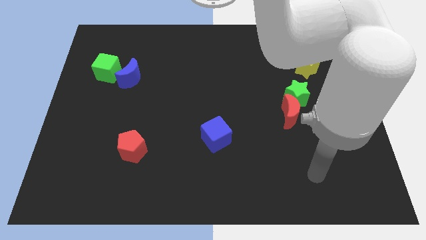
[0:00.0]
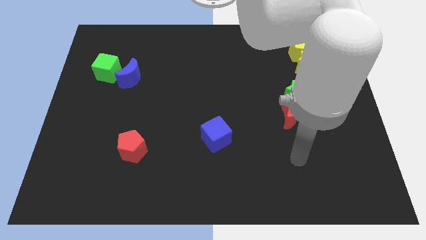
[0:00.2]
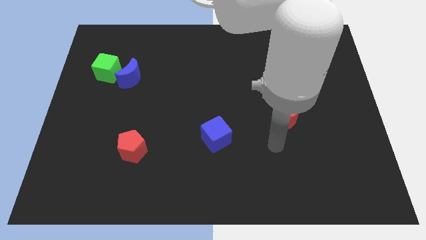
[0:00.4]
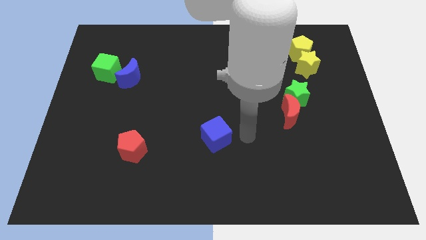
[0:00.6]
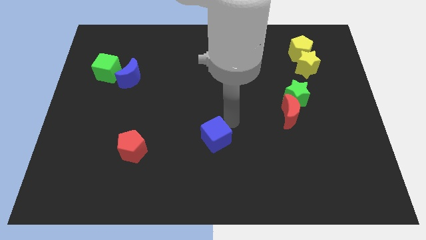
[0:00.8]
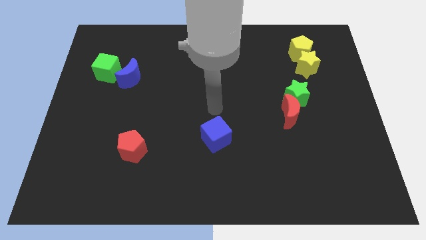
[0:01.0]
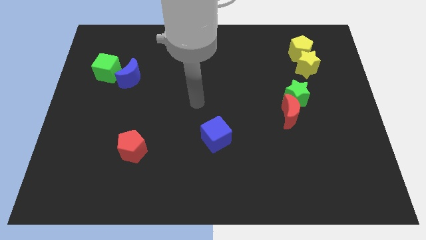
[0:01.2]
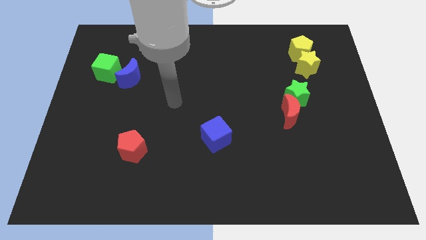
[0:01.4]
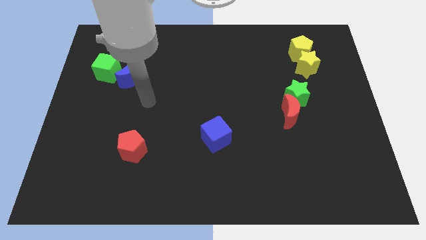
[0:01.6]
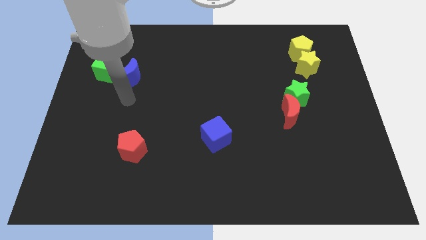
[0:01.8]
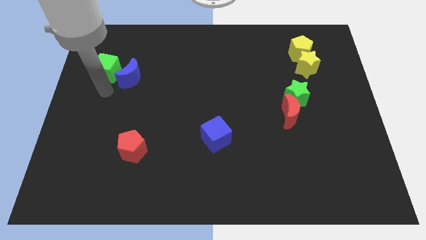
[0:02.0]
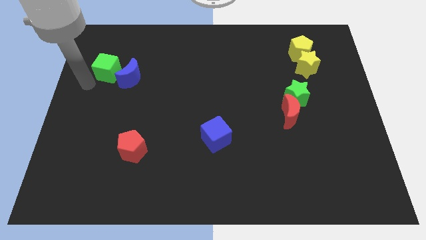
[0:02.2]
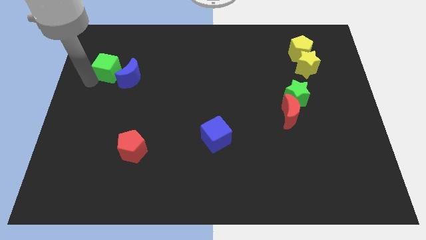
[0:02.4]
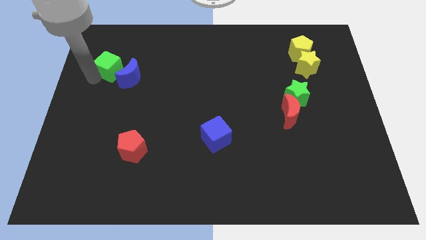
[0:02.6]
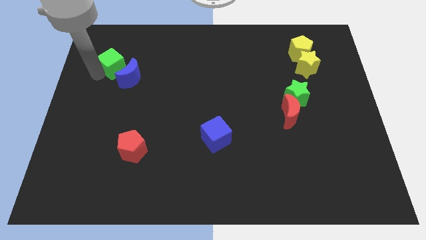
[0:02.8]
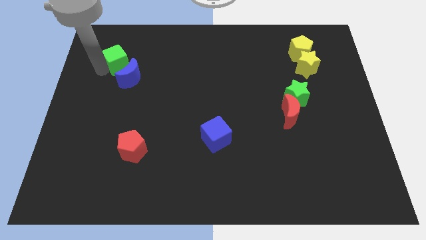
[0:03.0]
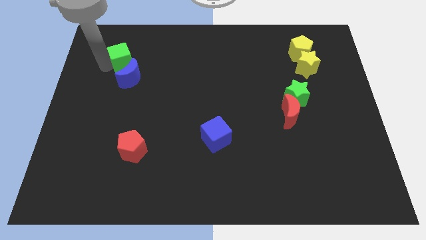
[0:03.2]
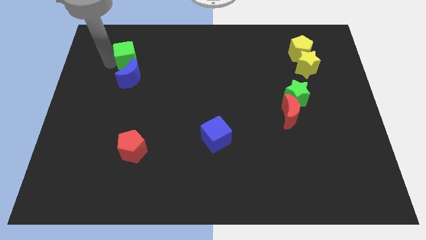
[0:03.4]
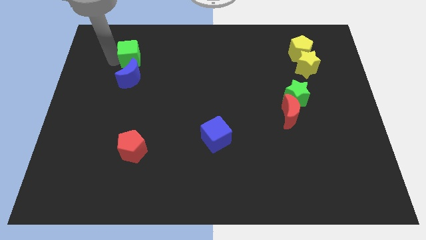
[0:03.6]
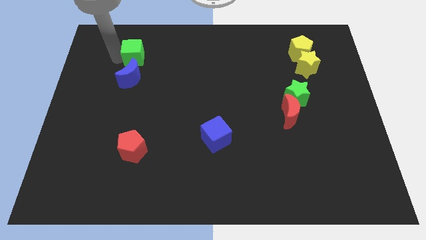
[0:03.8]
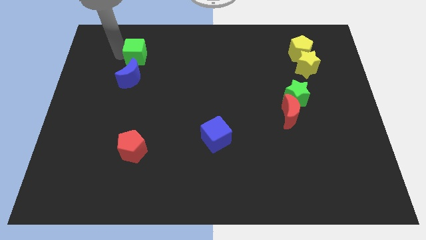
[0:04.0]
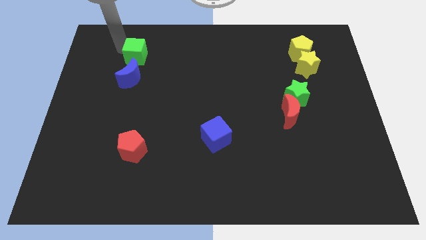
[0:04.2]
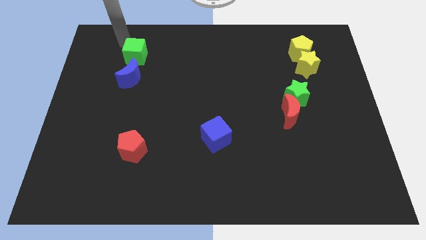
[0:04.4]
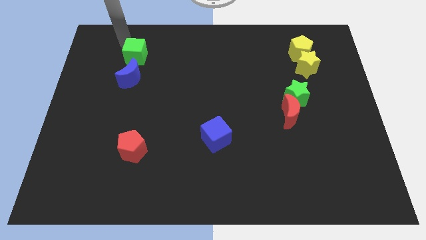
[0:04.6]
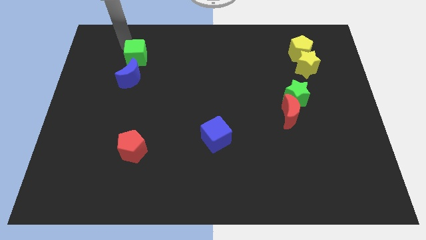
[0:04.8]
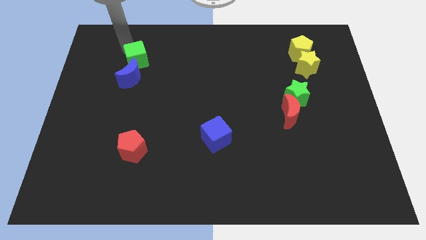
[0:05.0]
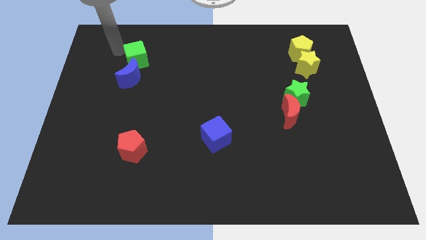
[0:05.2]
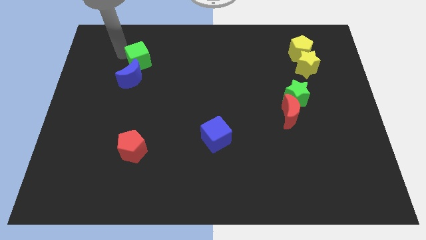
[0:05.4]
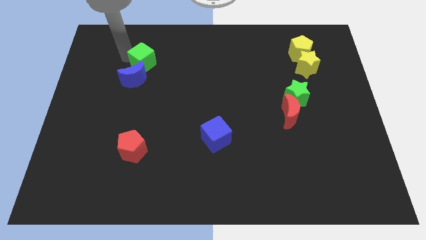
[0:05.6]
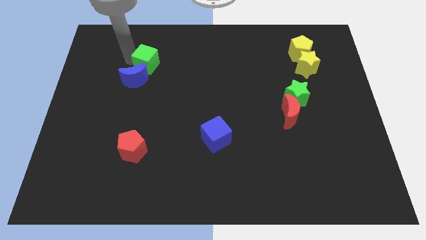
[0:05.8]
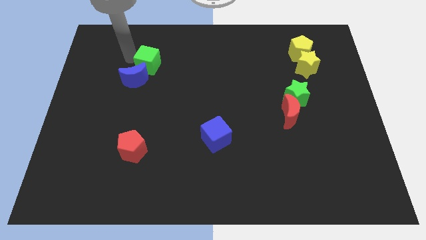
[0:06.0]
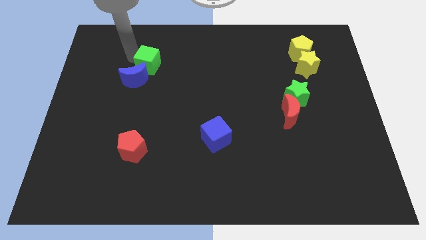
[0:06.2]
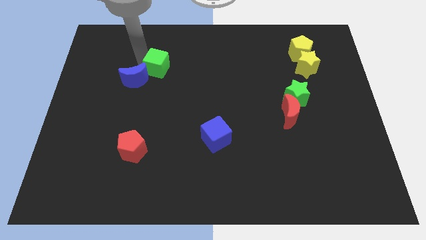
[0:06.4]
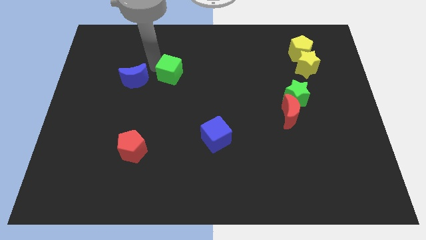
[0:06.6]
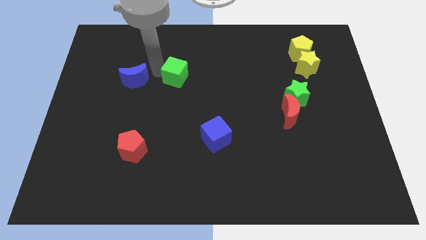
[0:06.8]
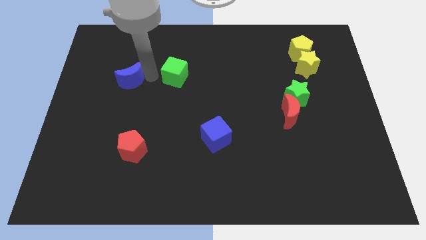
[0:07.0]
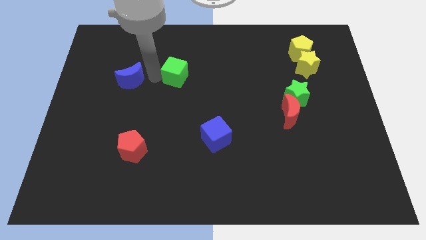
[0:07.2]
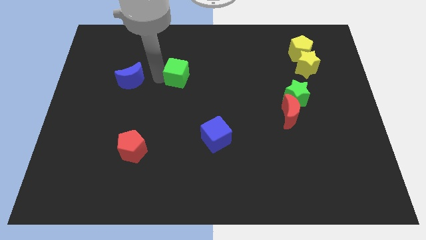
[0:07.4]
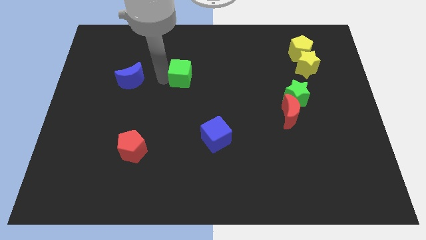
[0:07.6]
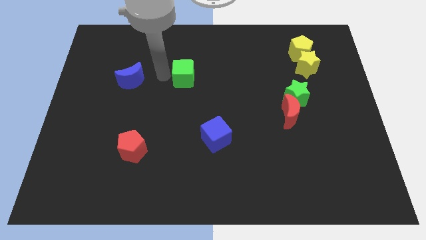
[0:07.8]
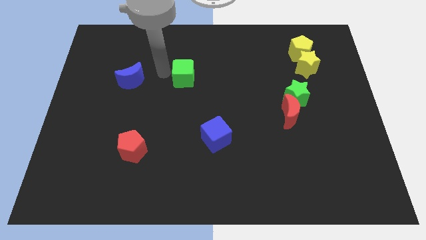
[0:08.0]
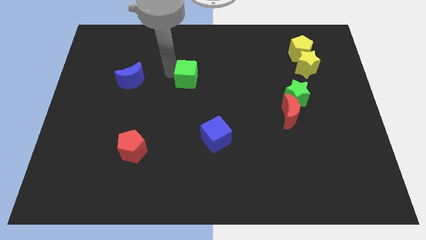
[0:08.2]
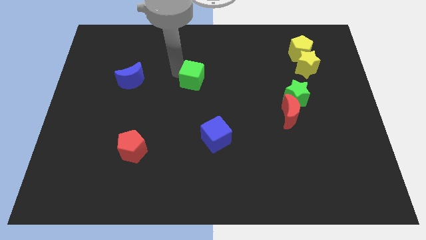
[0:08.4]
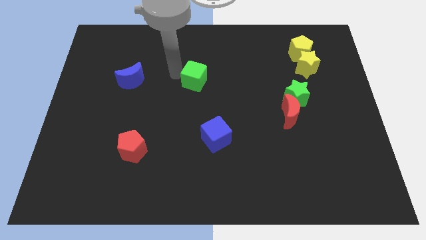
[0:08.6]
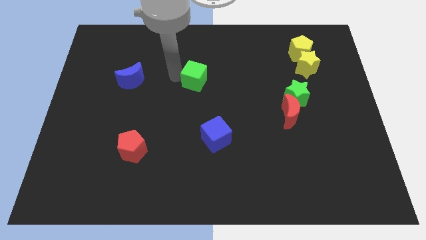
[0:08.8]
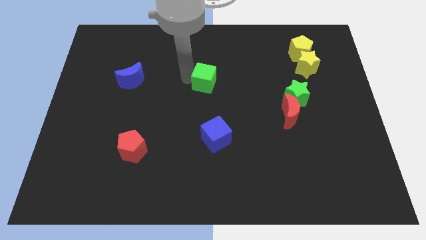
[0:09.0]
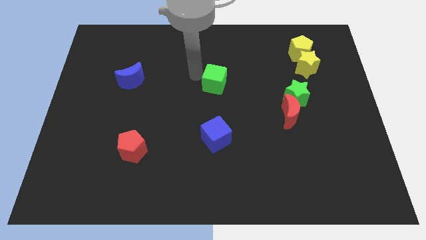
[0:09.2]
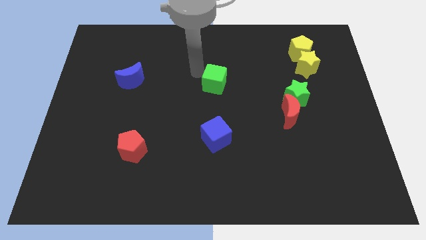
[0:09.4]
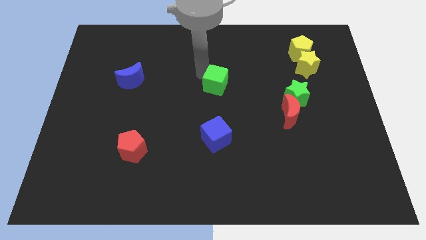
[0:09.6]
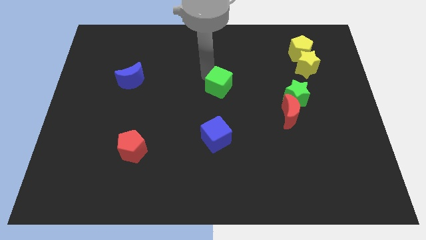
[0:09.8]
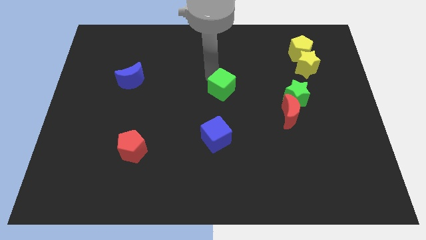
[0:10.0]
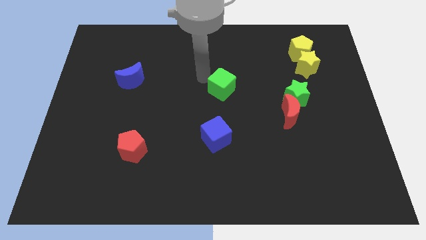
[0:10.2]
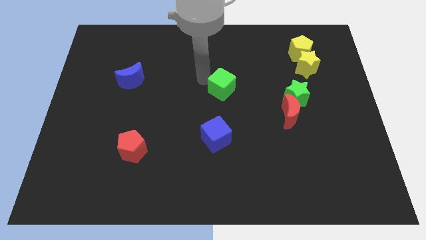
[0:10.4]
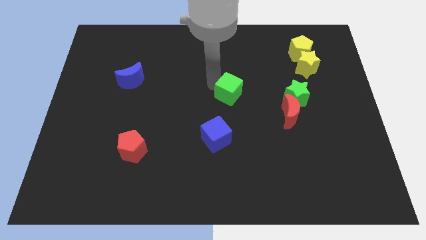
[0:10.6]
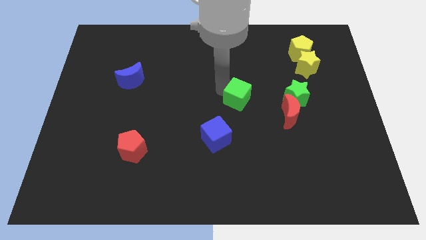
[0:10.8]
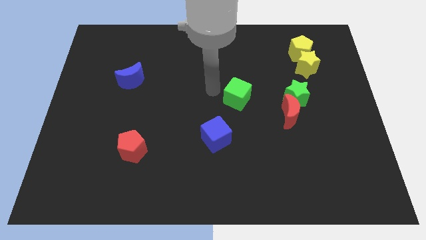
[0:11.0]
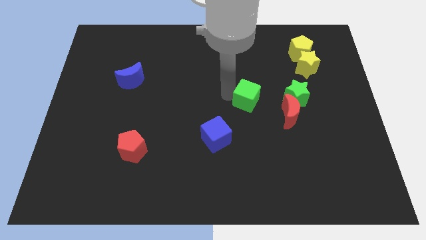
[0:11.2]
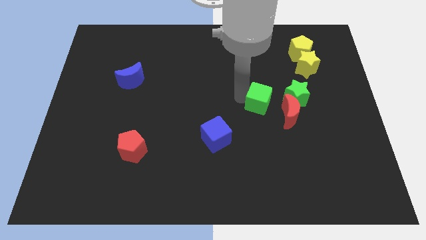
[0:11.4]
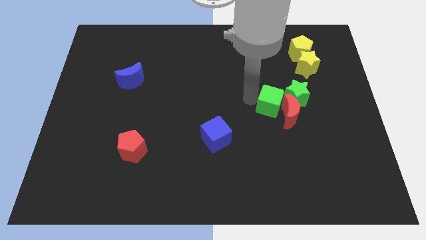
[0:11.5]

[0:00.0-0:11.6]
move the green cube close to the red moon

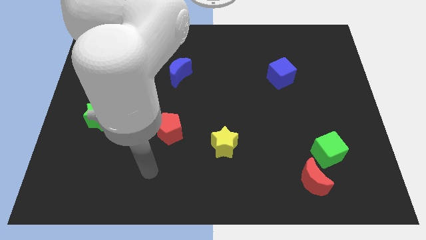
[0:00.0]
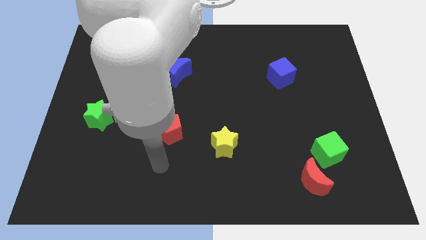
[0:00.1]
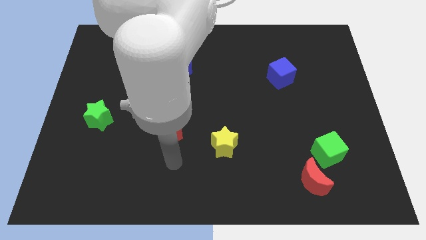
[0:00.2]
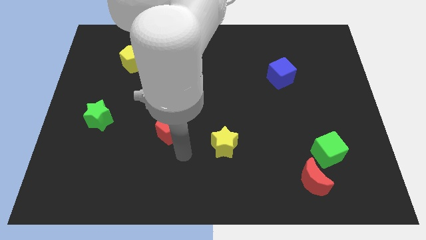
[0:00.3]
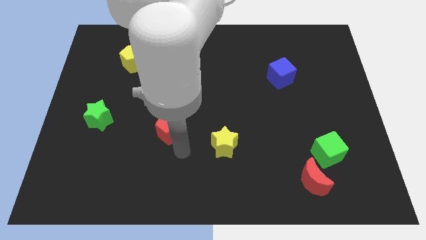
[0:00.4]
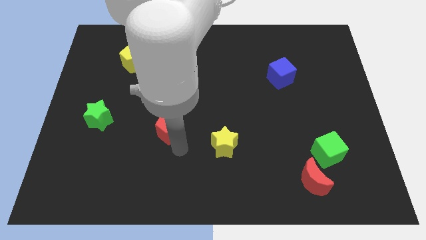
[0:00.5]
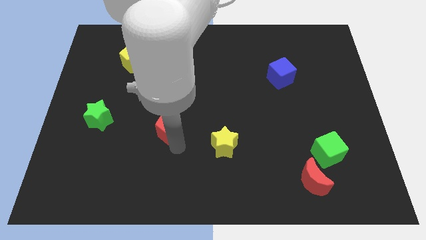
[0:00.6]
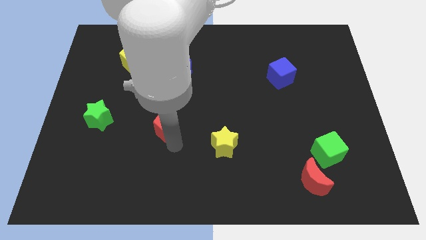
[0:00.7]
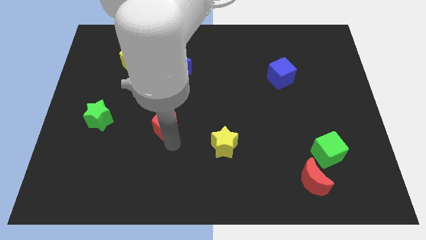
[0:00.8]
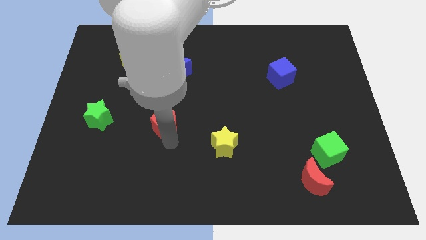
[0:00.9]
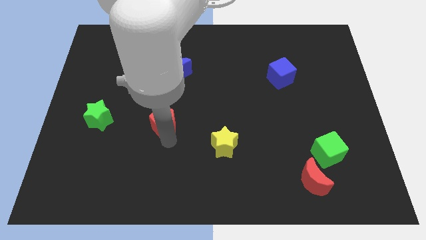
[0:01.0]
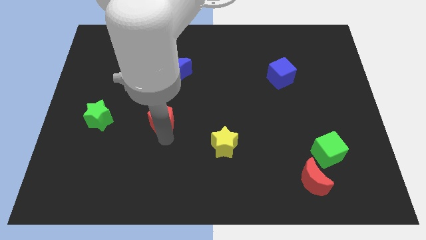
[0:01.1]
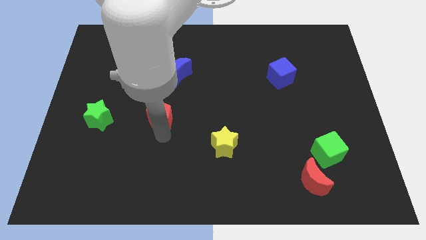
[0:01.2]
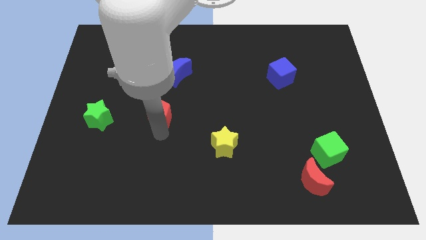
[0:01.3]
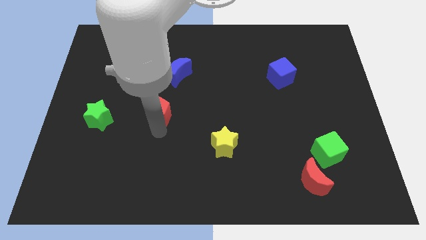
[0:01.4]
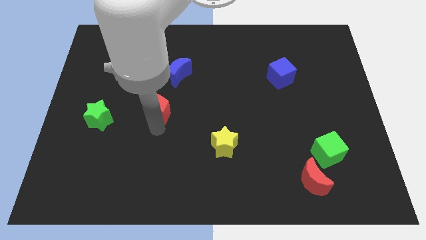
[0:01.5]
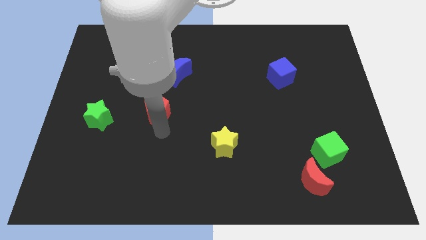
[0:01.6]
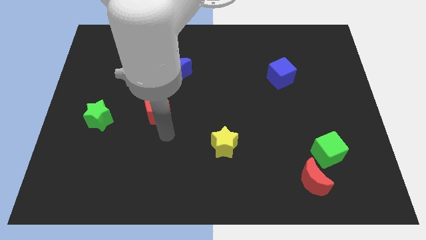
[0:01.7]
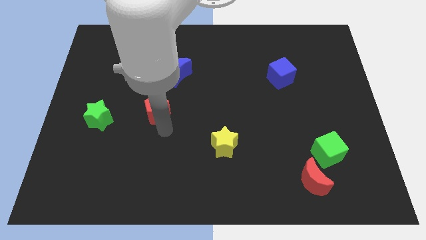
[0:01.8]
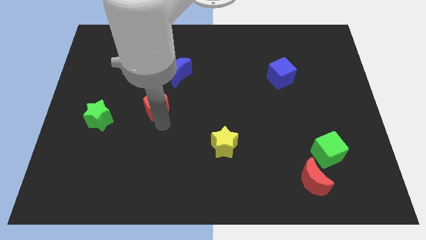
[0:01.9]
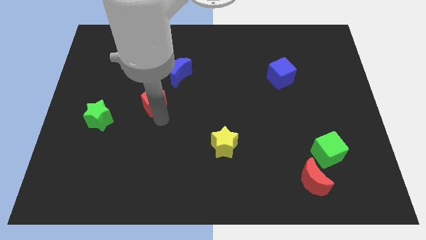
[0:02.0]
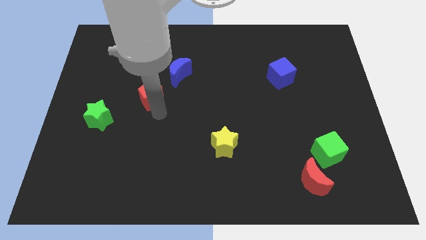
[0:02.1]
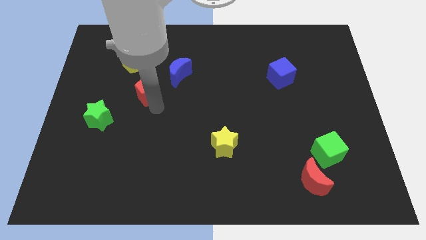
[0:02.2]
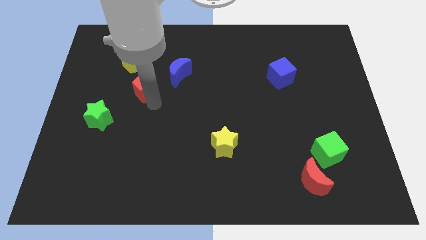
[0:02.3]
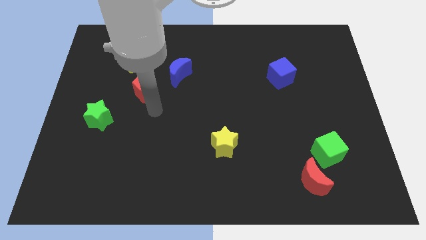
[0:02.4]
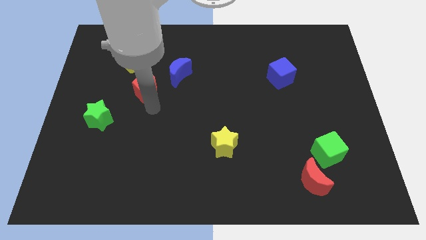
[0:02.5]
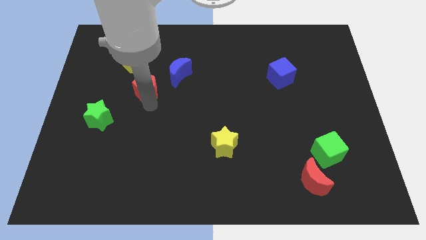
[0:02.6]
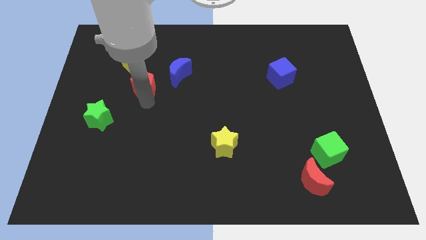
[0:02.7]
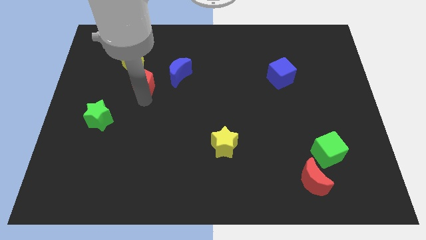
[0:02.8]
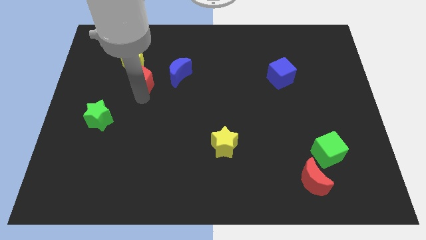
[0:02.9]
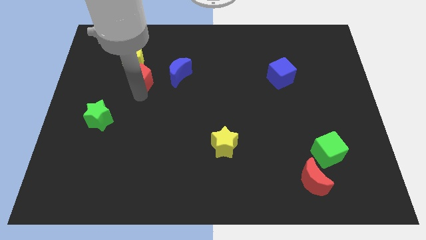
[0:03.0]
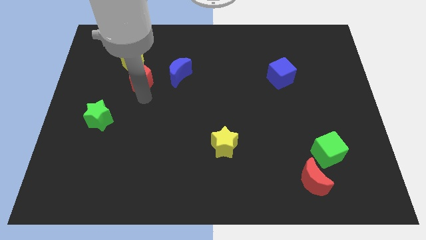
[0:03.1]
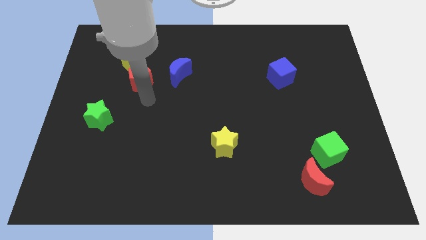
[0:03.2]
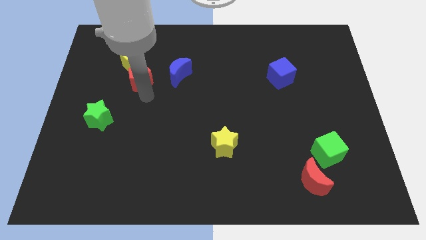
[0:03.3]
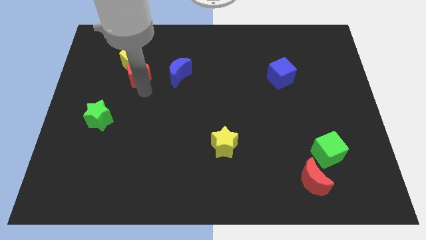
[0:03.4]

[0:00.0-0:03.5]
slide the red pentagon next to the yellow pentagon
